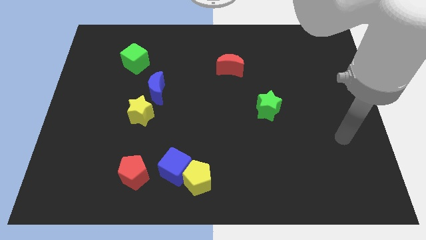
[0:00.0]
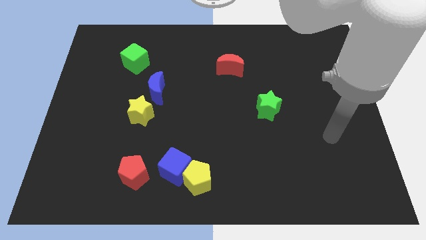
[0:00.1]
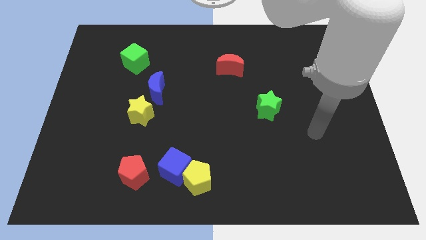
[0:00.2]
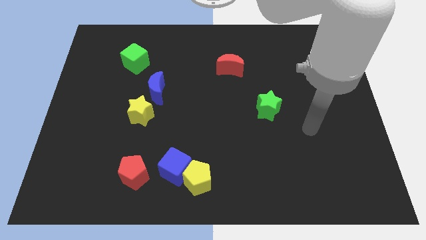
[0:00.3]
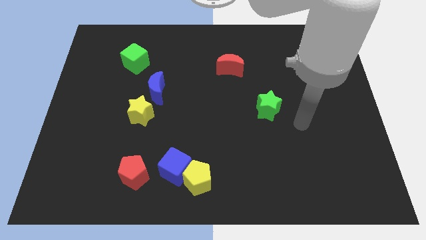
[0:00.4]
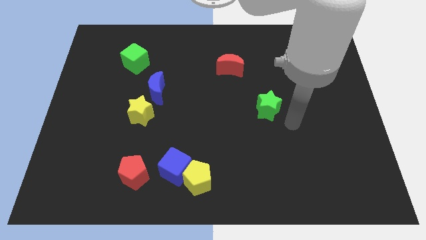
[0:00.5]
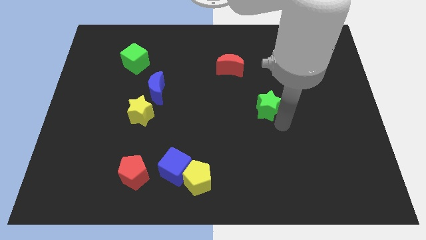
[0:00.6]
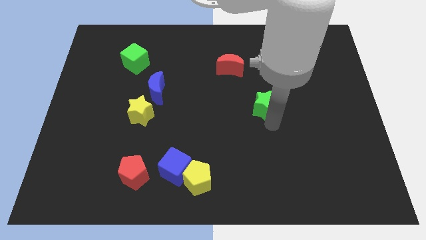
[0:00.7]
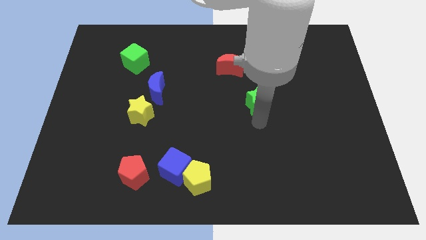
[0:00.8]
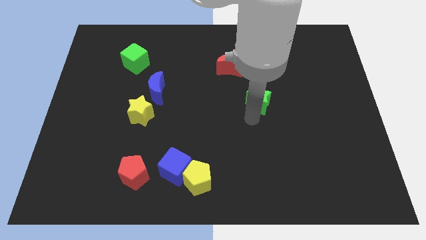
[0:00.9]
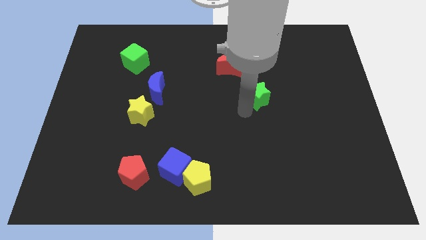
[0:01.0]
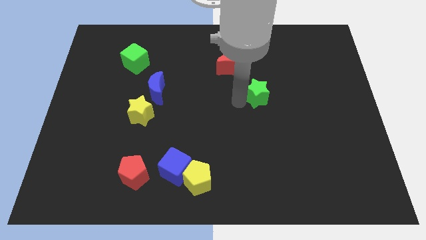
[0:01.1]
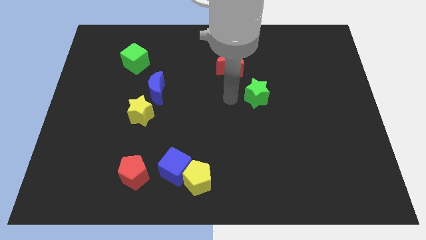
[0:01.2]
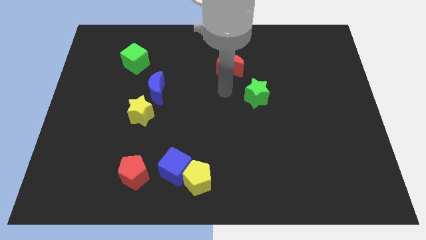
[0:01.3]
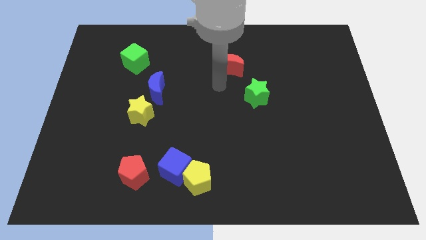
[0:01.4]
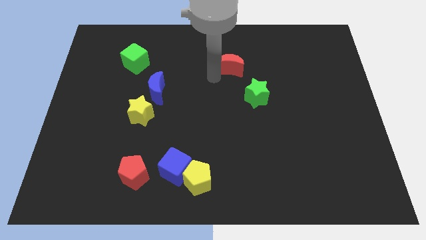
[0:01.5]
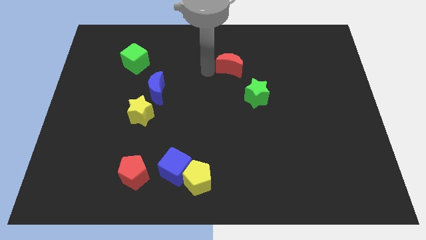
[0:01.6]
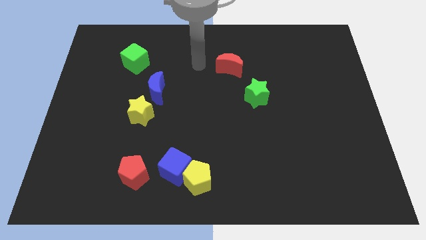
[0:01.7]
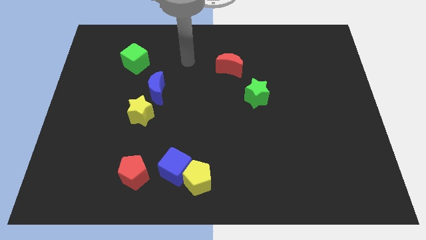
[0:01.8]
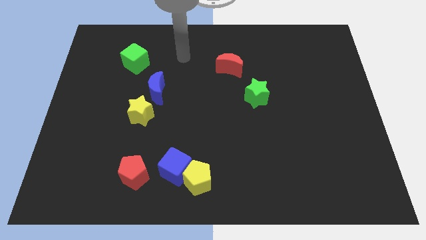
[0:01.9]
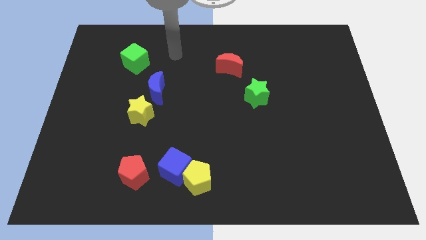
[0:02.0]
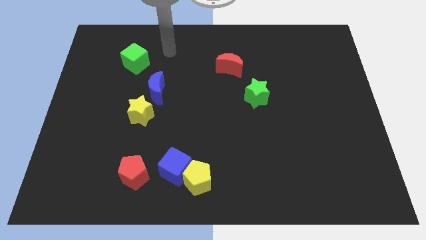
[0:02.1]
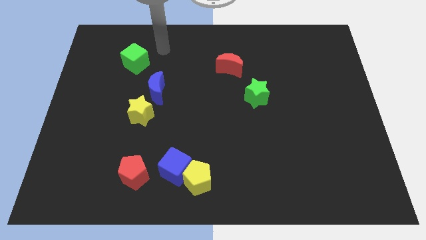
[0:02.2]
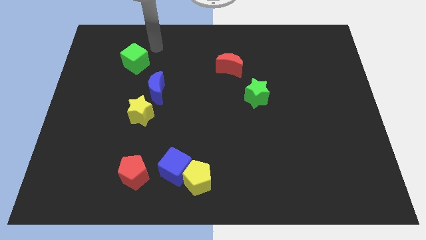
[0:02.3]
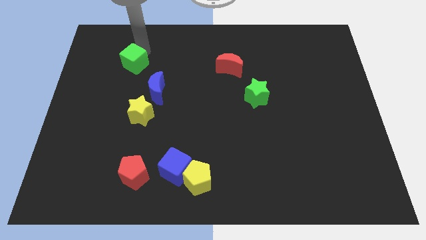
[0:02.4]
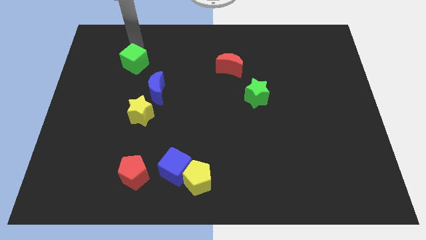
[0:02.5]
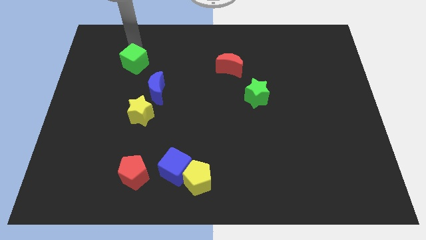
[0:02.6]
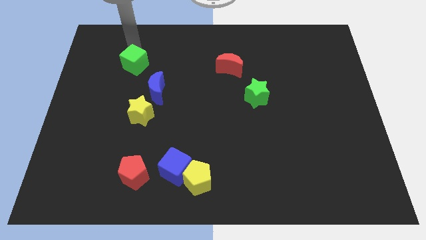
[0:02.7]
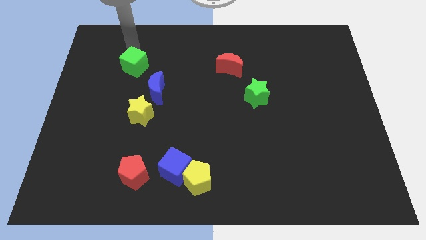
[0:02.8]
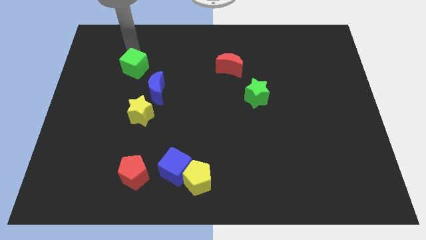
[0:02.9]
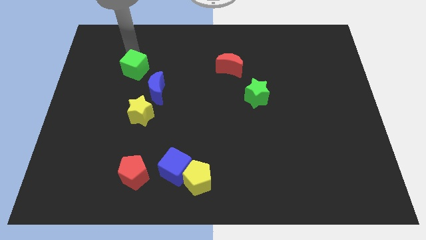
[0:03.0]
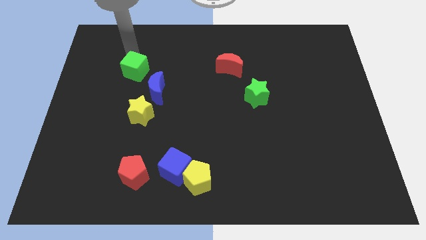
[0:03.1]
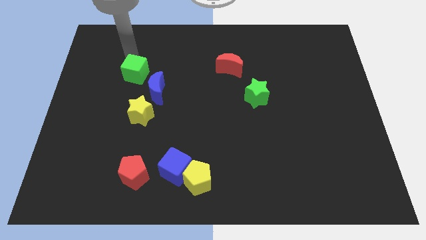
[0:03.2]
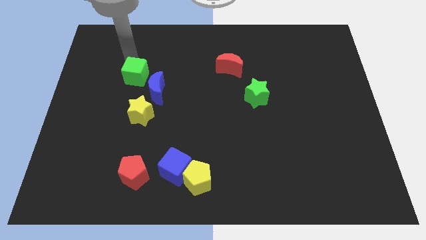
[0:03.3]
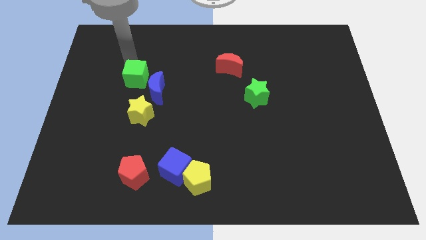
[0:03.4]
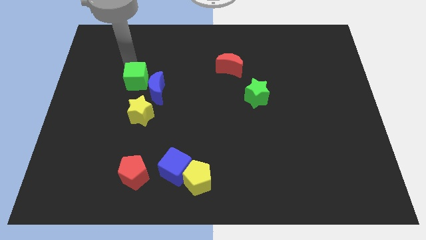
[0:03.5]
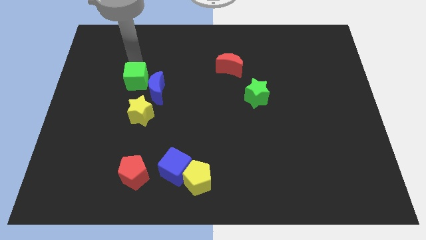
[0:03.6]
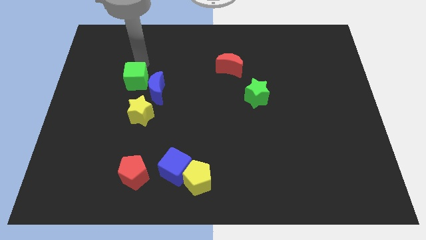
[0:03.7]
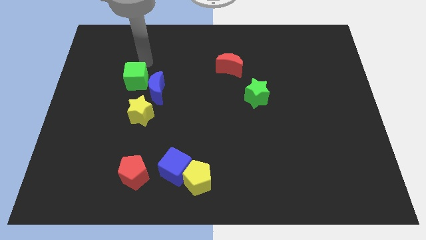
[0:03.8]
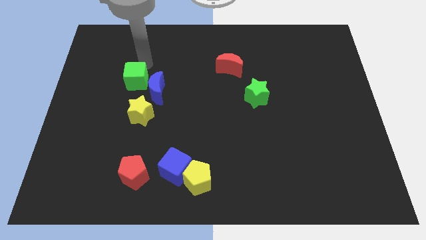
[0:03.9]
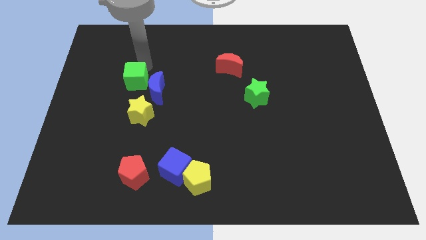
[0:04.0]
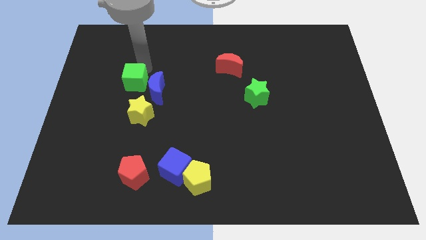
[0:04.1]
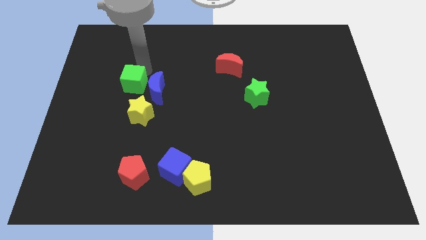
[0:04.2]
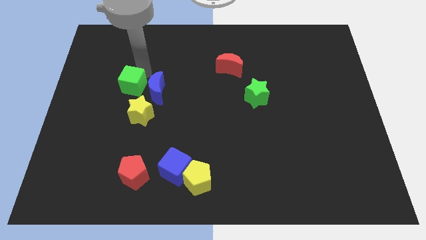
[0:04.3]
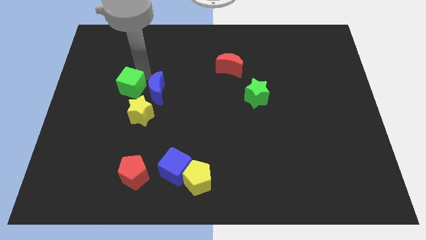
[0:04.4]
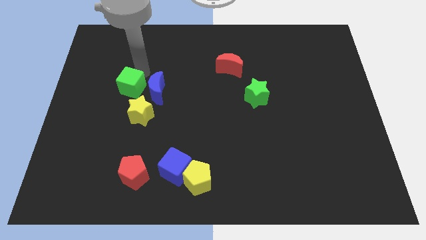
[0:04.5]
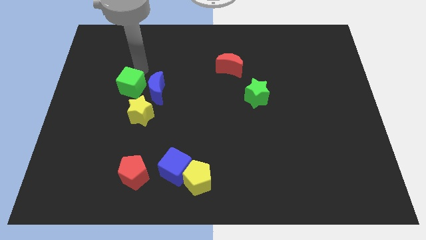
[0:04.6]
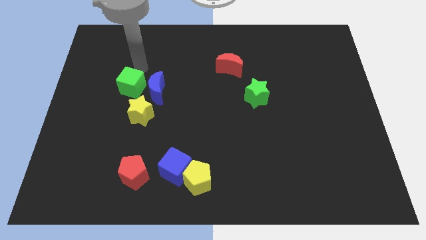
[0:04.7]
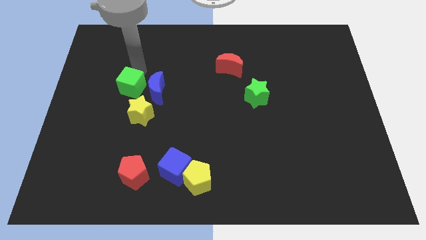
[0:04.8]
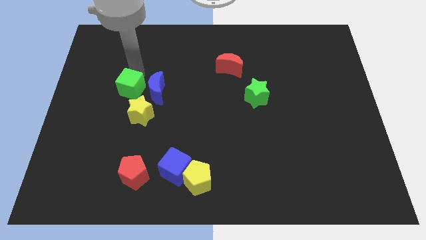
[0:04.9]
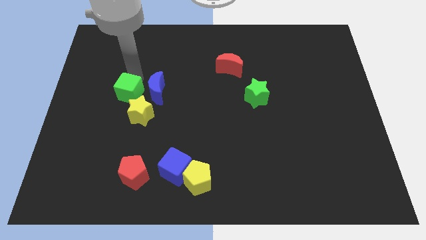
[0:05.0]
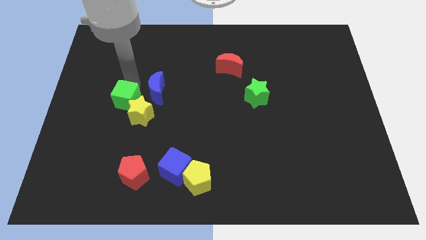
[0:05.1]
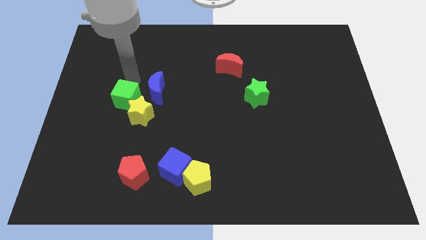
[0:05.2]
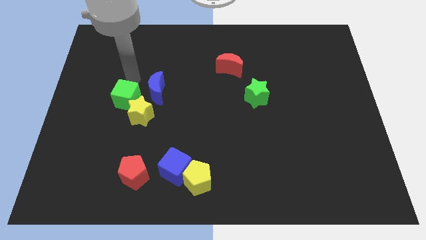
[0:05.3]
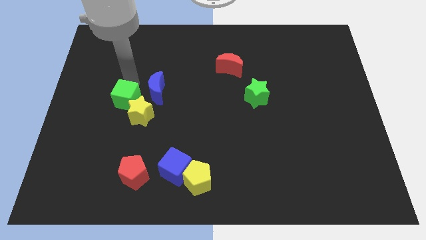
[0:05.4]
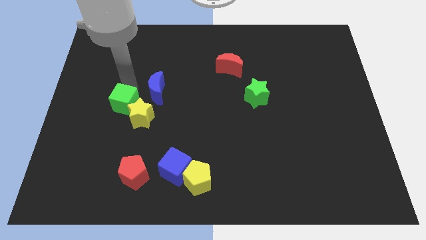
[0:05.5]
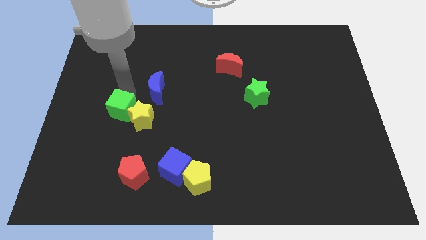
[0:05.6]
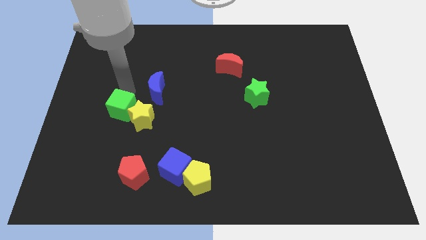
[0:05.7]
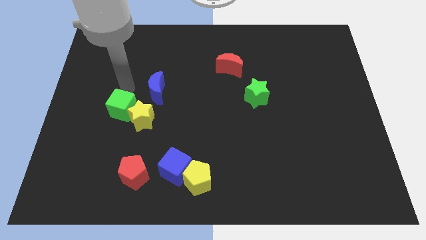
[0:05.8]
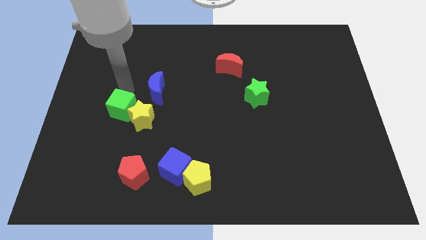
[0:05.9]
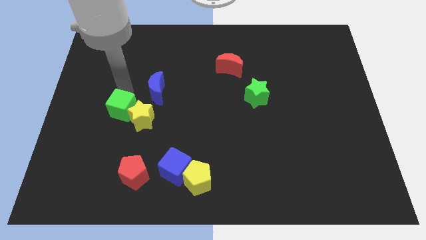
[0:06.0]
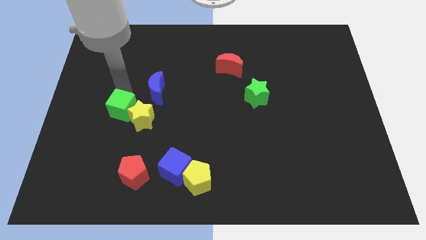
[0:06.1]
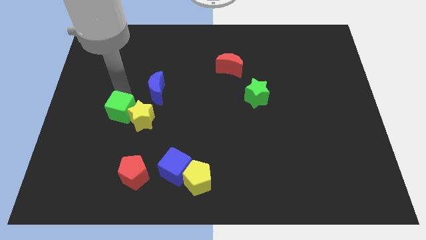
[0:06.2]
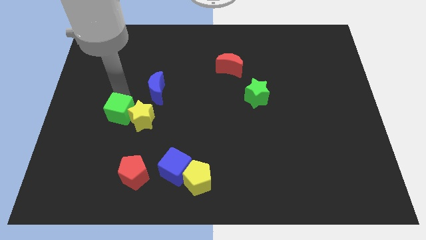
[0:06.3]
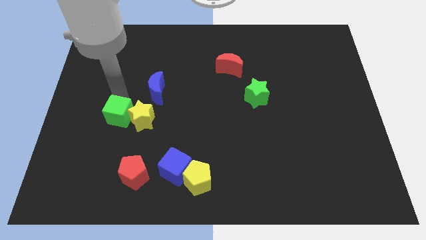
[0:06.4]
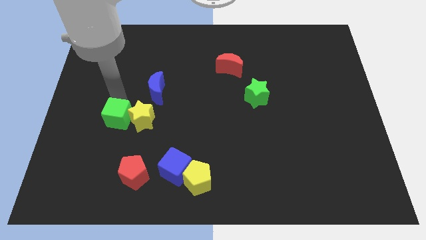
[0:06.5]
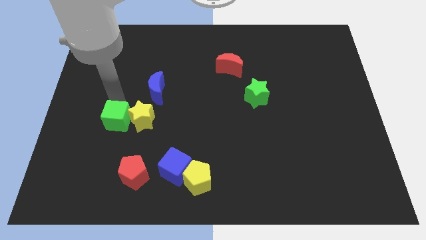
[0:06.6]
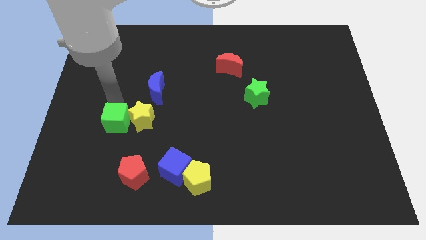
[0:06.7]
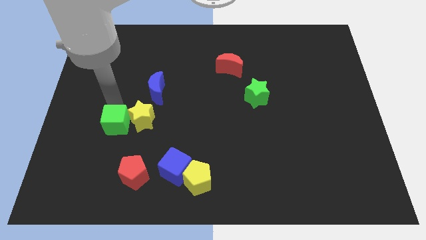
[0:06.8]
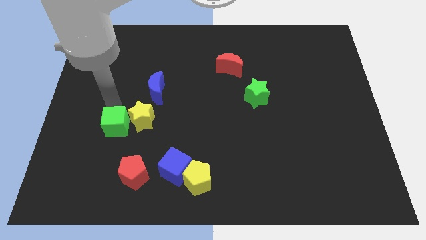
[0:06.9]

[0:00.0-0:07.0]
slide the green cube downwards

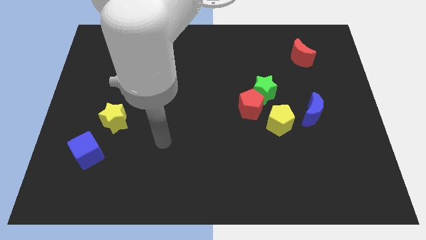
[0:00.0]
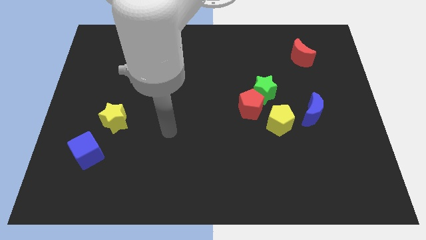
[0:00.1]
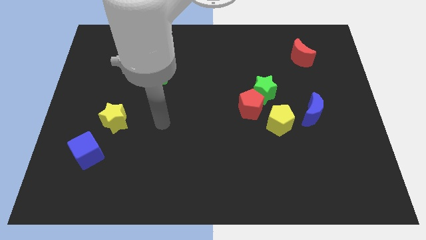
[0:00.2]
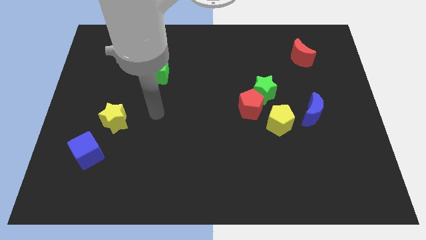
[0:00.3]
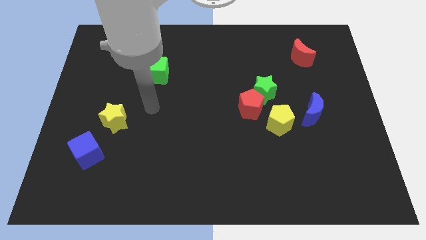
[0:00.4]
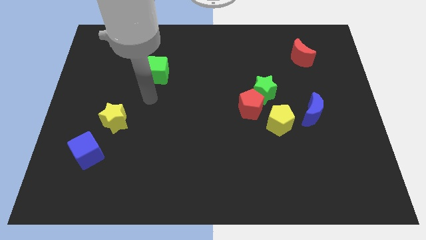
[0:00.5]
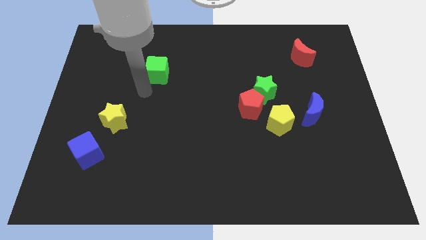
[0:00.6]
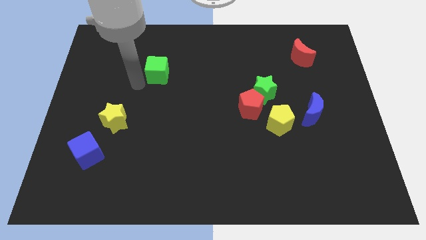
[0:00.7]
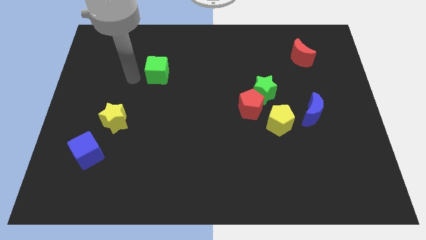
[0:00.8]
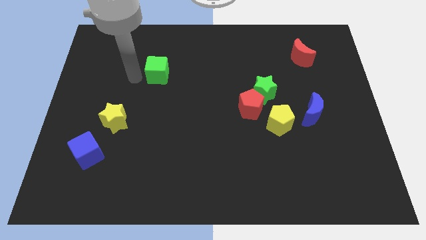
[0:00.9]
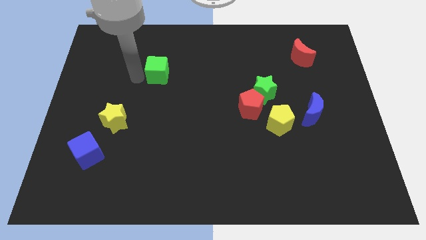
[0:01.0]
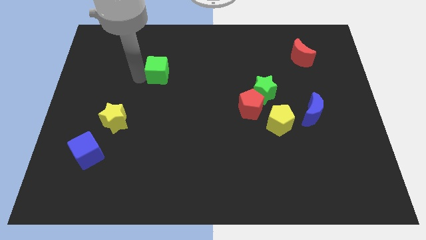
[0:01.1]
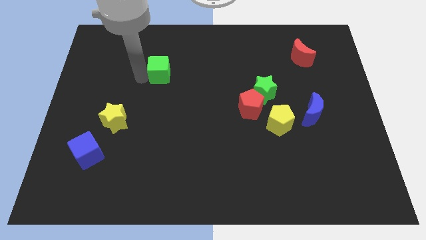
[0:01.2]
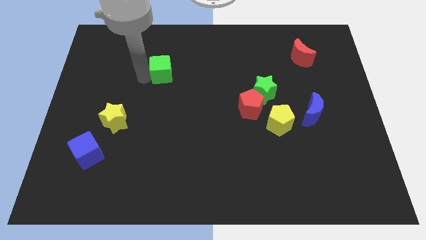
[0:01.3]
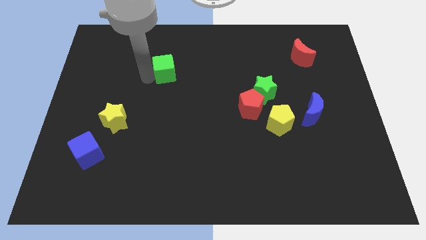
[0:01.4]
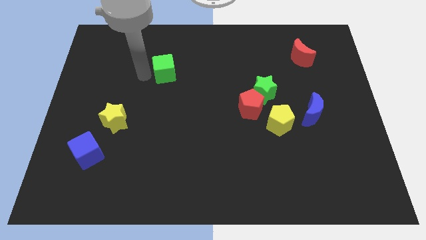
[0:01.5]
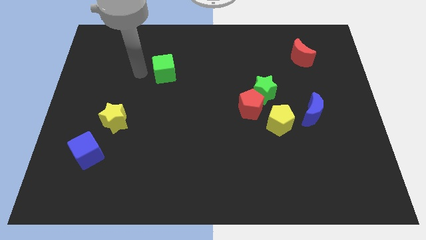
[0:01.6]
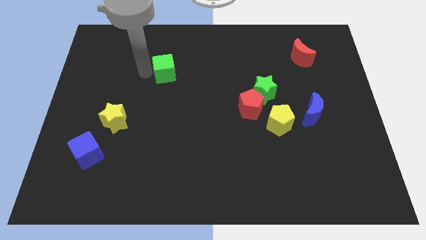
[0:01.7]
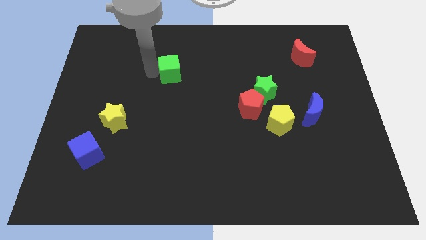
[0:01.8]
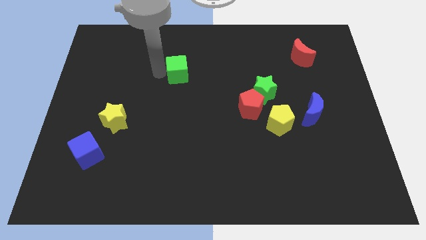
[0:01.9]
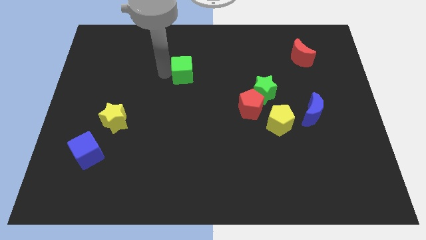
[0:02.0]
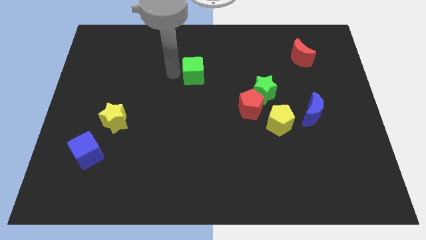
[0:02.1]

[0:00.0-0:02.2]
slightly slide the green cube right
